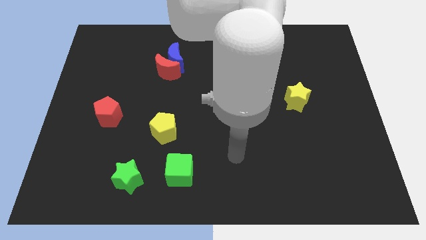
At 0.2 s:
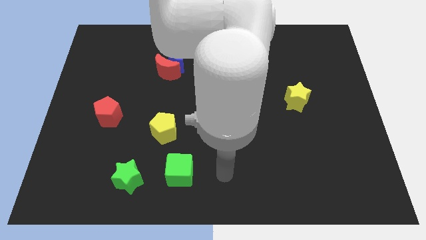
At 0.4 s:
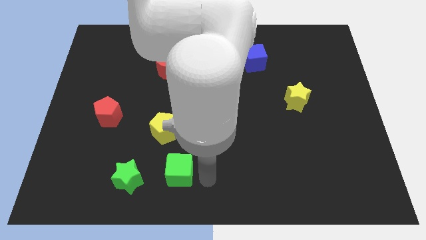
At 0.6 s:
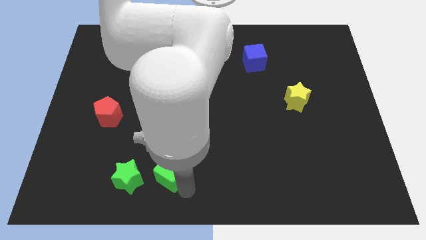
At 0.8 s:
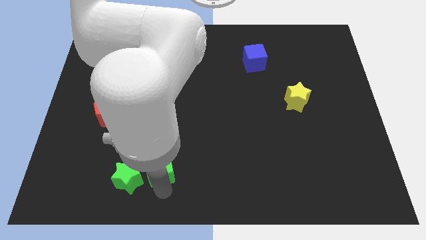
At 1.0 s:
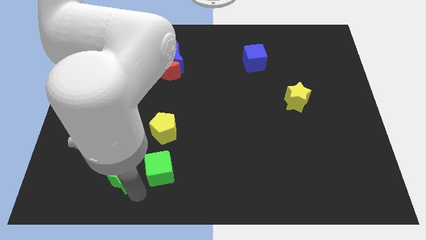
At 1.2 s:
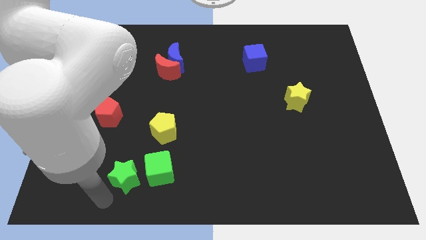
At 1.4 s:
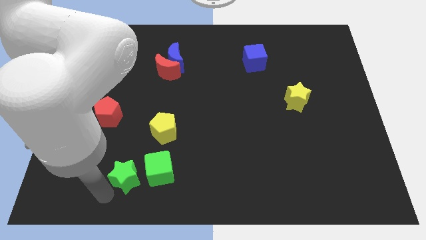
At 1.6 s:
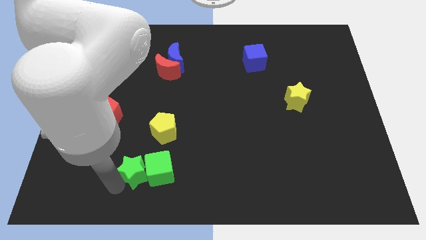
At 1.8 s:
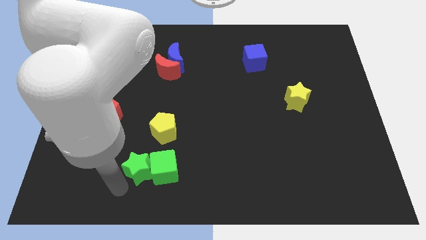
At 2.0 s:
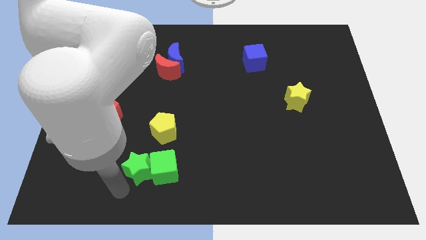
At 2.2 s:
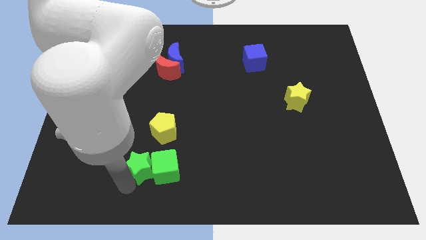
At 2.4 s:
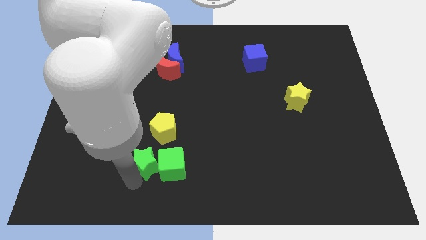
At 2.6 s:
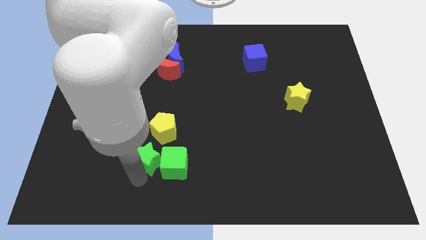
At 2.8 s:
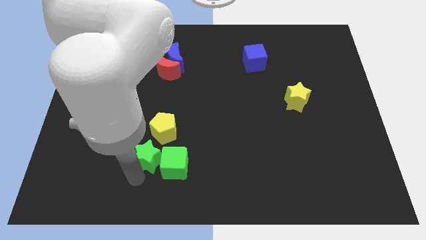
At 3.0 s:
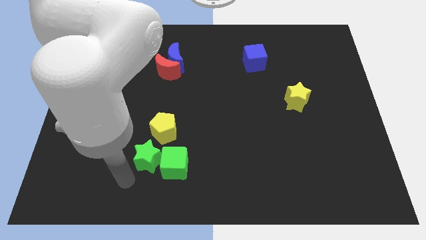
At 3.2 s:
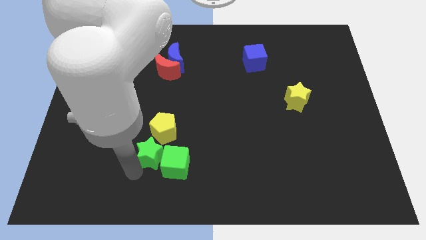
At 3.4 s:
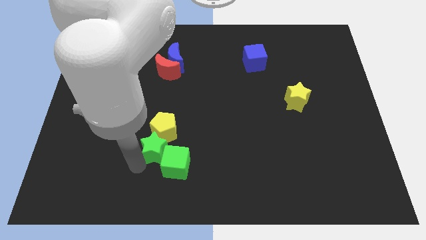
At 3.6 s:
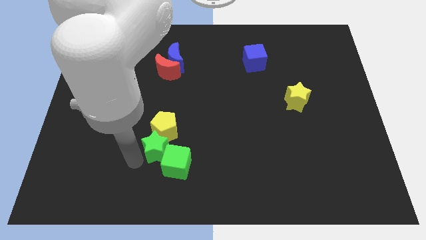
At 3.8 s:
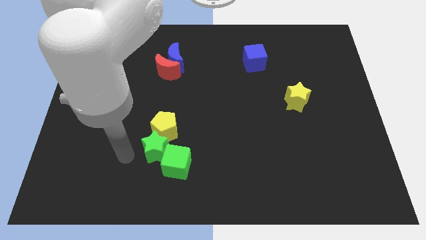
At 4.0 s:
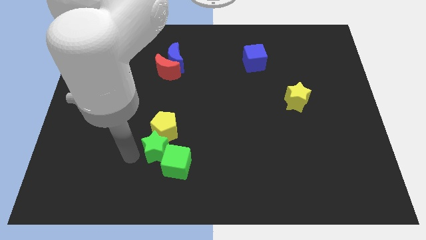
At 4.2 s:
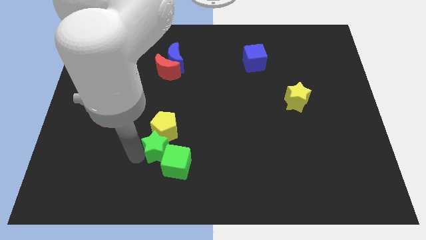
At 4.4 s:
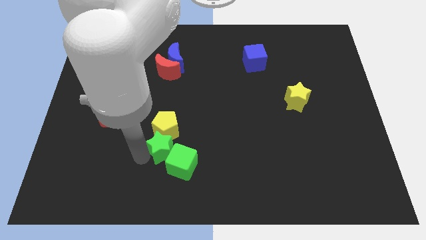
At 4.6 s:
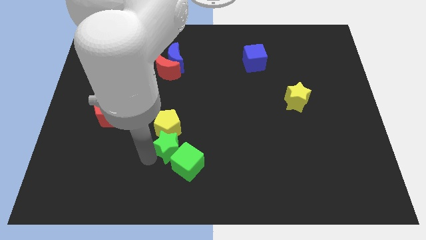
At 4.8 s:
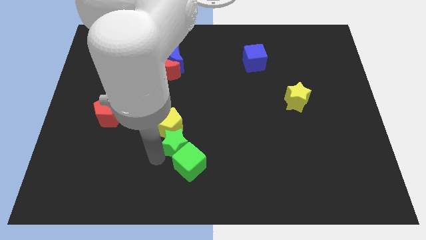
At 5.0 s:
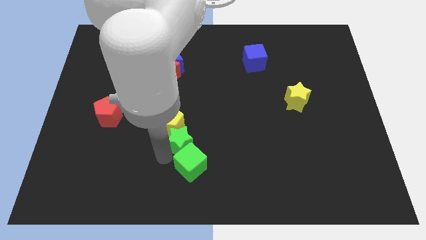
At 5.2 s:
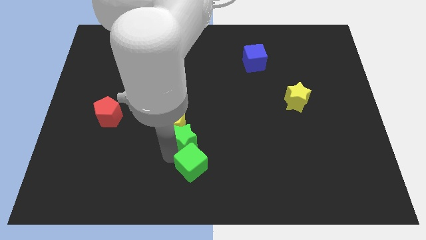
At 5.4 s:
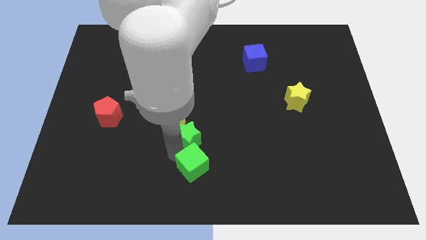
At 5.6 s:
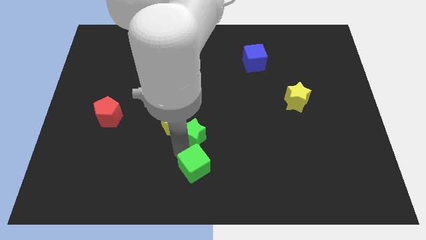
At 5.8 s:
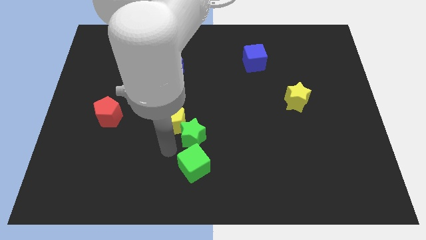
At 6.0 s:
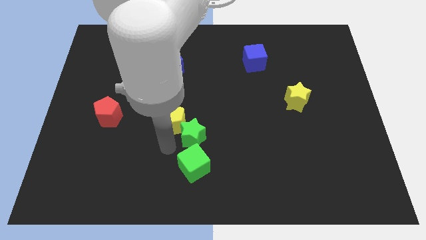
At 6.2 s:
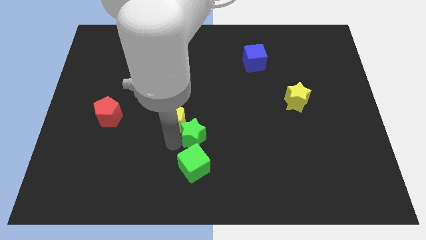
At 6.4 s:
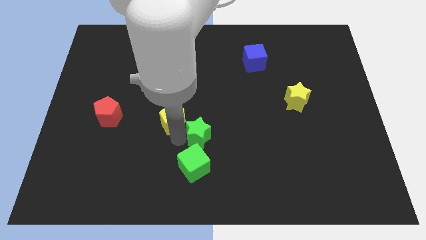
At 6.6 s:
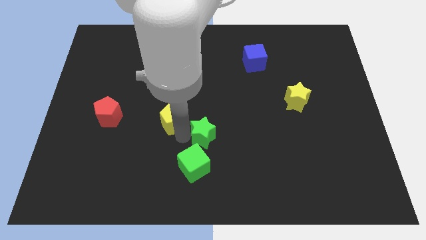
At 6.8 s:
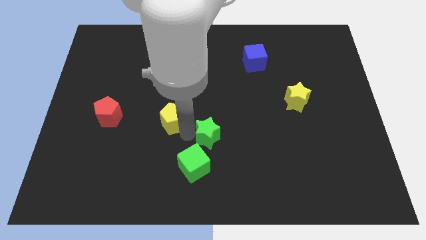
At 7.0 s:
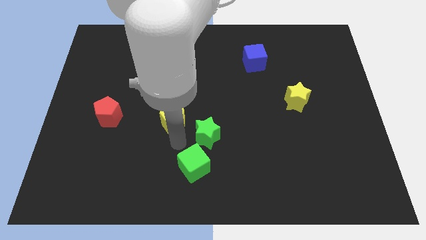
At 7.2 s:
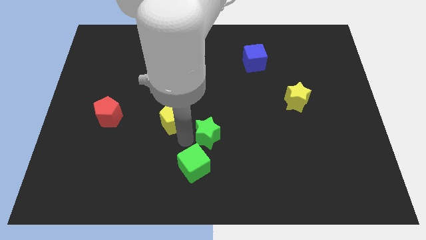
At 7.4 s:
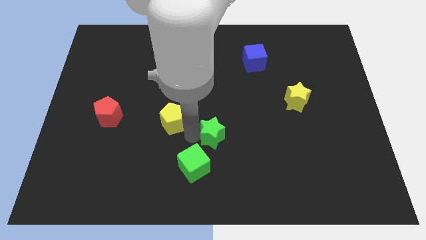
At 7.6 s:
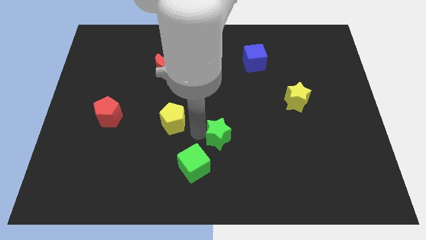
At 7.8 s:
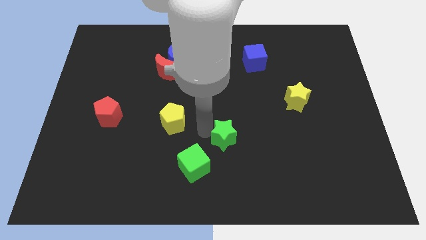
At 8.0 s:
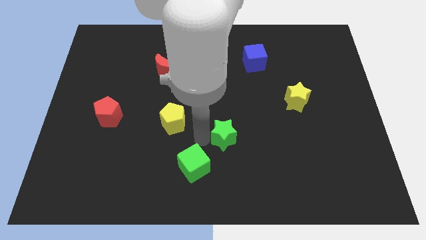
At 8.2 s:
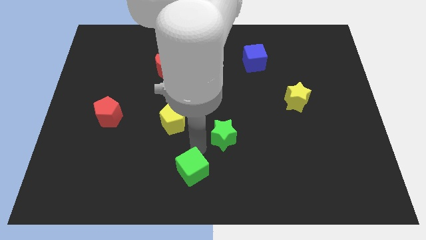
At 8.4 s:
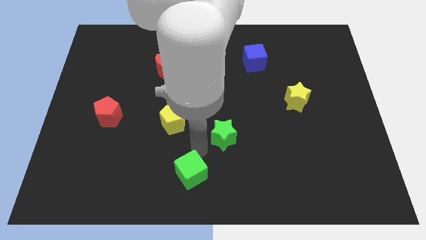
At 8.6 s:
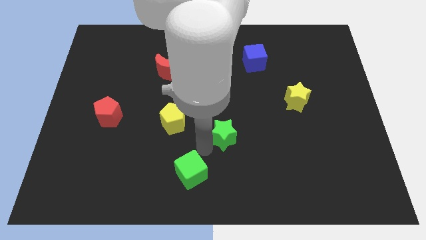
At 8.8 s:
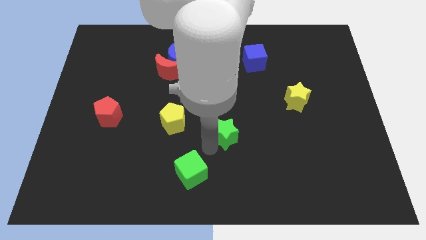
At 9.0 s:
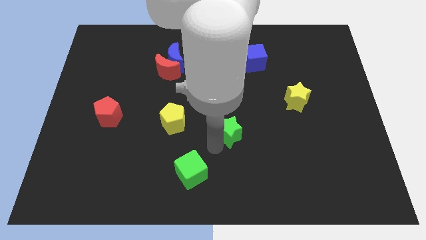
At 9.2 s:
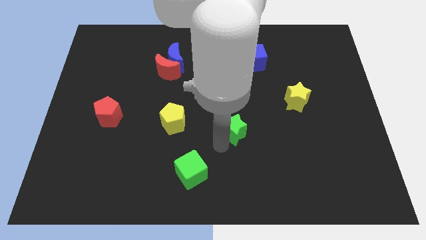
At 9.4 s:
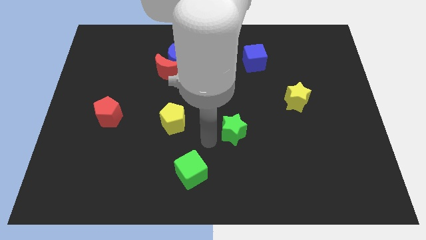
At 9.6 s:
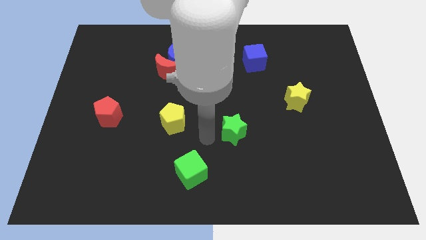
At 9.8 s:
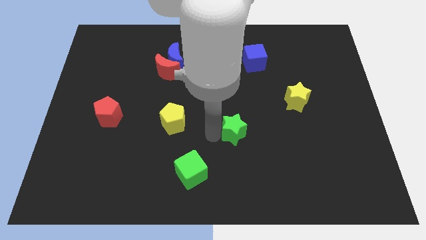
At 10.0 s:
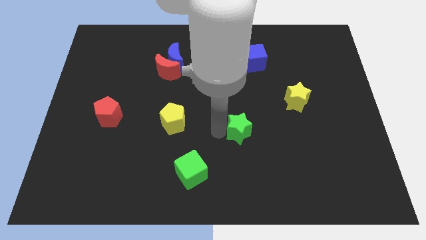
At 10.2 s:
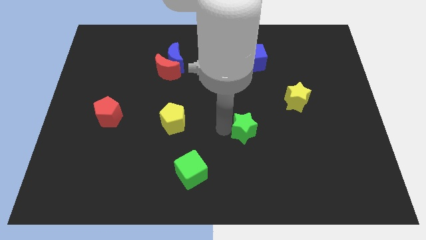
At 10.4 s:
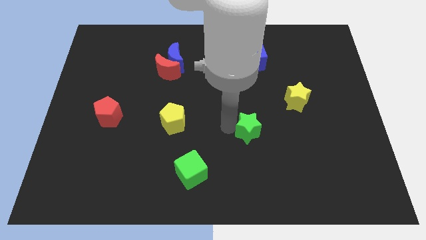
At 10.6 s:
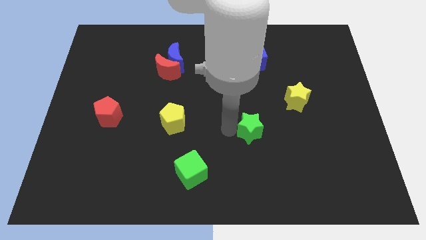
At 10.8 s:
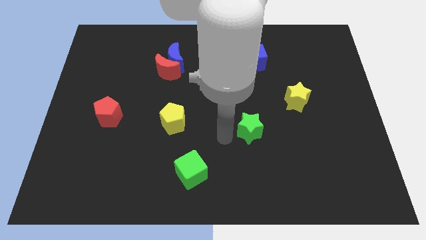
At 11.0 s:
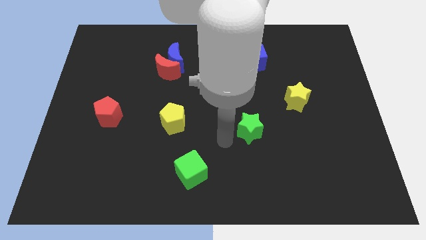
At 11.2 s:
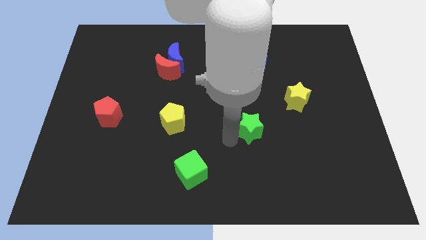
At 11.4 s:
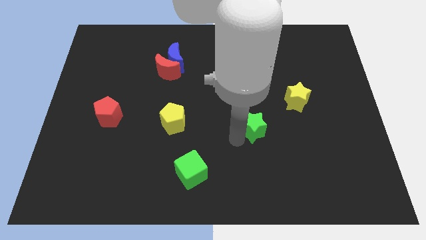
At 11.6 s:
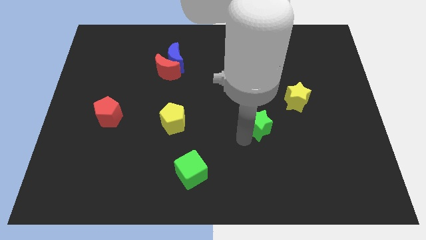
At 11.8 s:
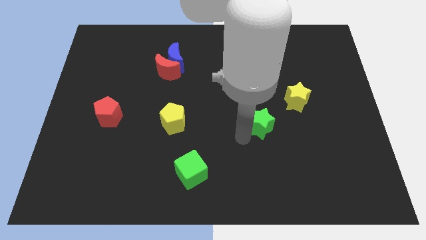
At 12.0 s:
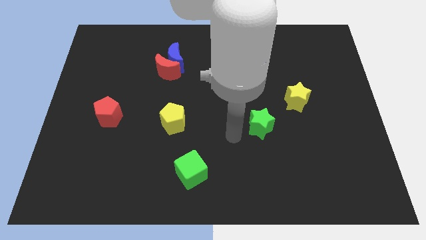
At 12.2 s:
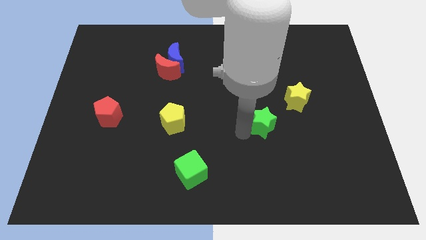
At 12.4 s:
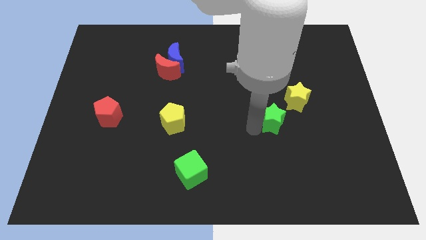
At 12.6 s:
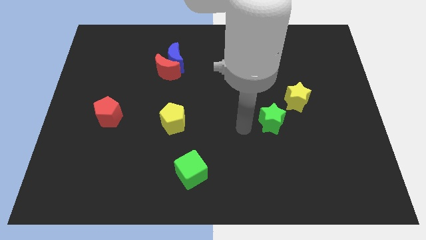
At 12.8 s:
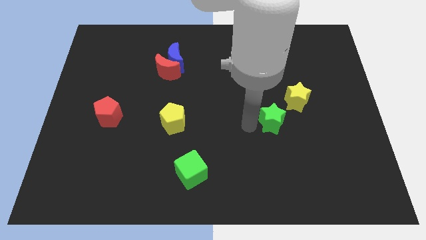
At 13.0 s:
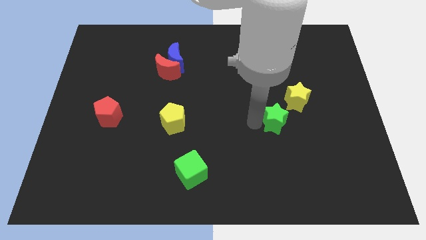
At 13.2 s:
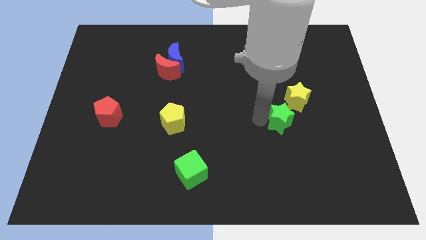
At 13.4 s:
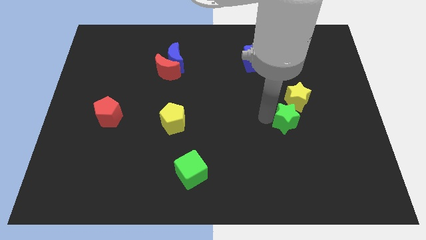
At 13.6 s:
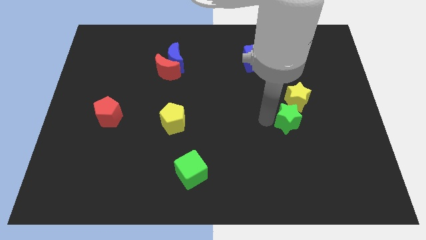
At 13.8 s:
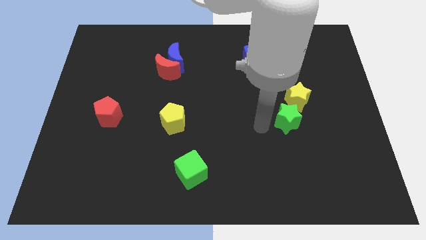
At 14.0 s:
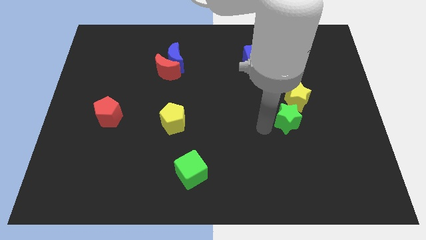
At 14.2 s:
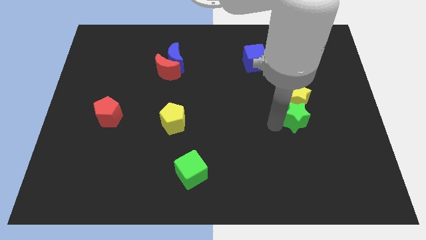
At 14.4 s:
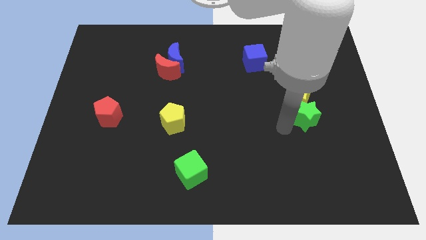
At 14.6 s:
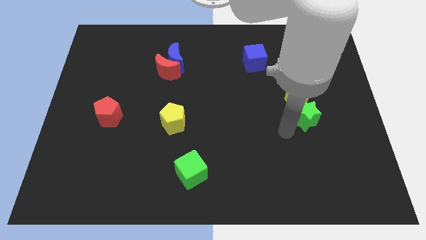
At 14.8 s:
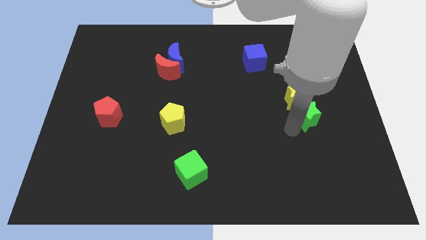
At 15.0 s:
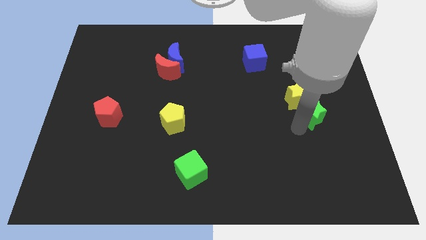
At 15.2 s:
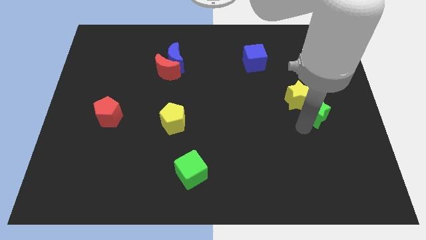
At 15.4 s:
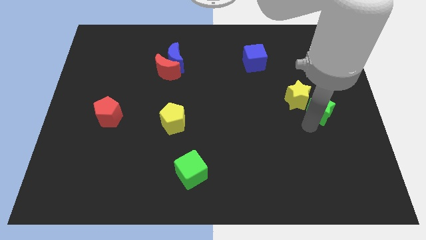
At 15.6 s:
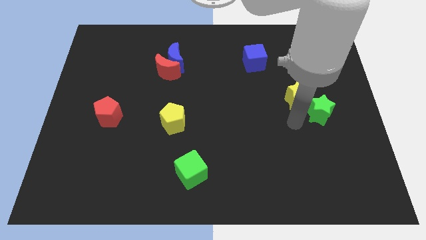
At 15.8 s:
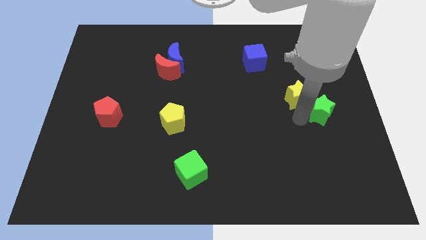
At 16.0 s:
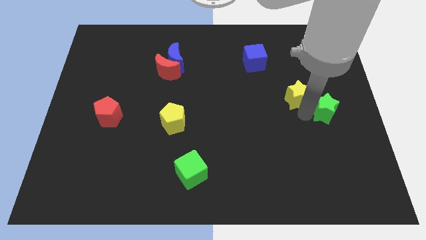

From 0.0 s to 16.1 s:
push the green star to the center right
